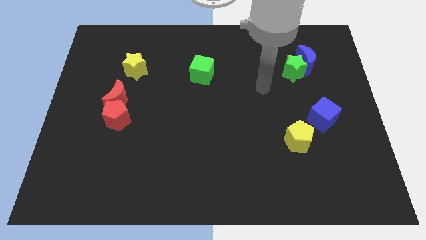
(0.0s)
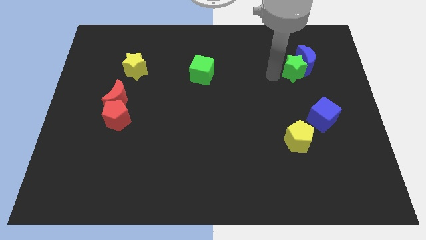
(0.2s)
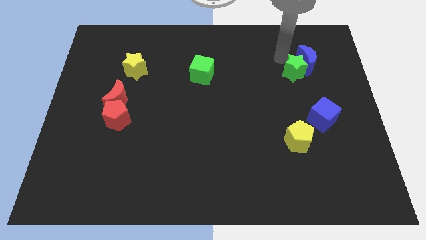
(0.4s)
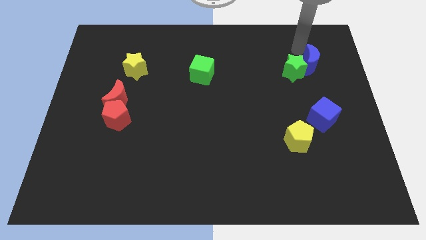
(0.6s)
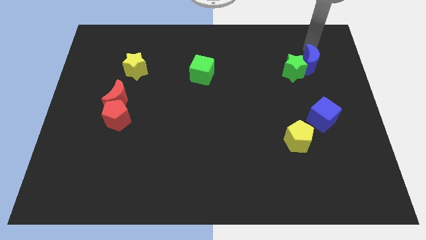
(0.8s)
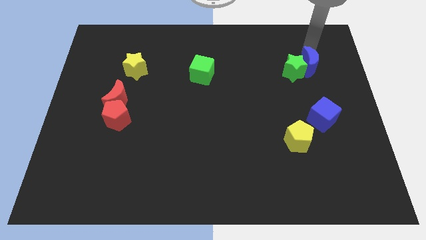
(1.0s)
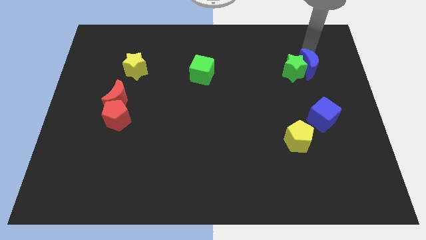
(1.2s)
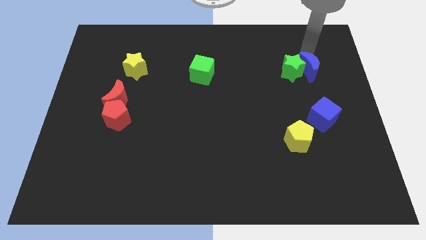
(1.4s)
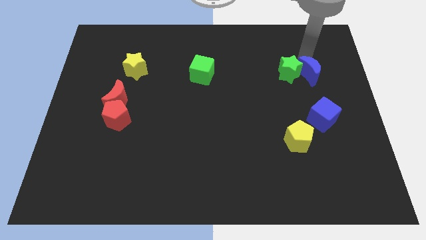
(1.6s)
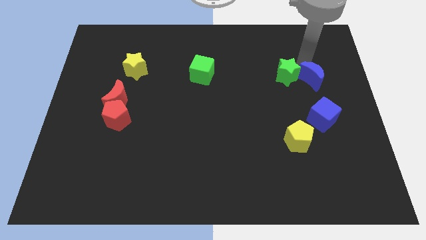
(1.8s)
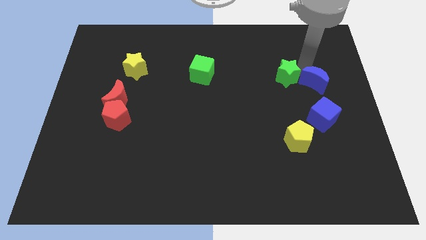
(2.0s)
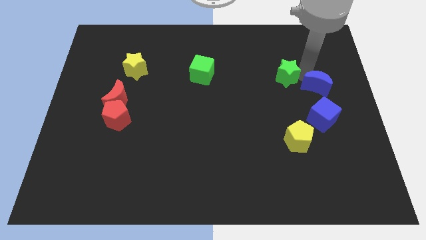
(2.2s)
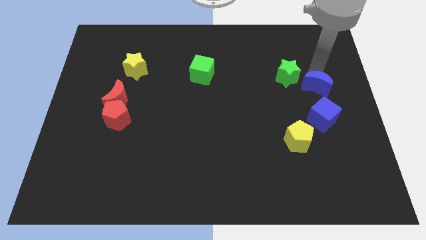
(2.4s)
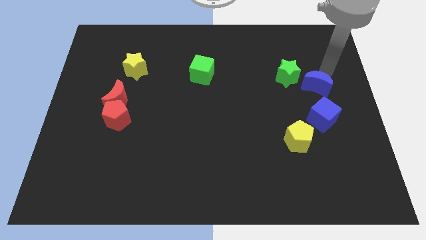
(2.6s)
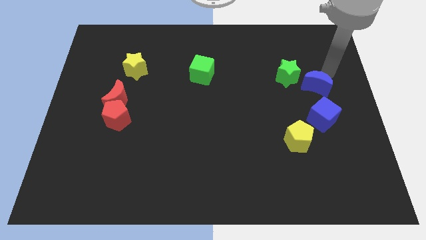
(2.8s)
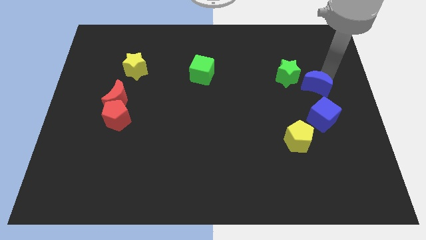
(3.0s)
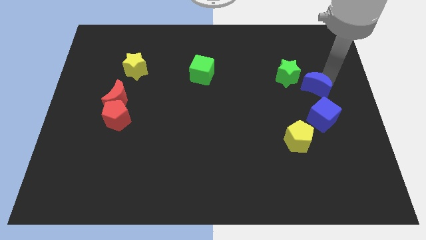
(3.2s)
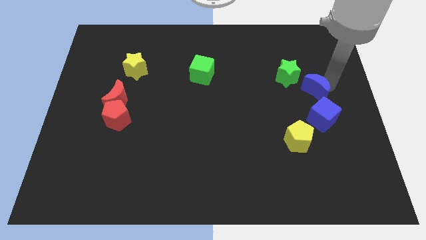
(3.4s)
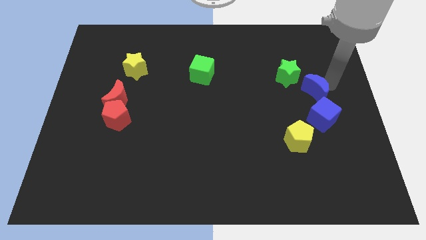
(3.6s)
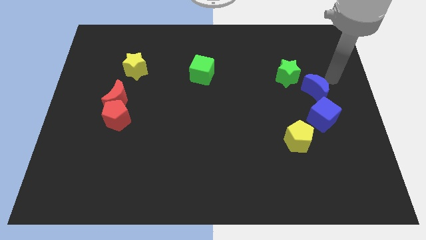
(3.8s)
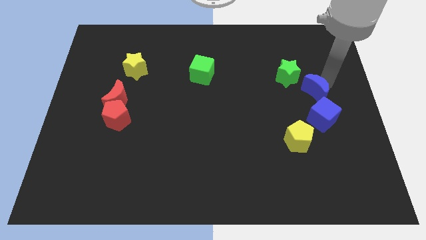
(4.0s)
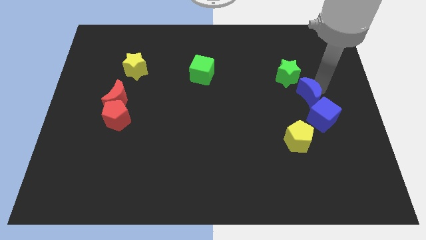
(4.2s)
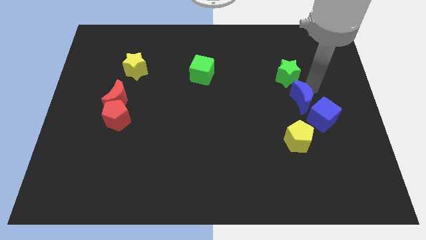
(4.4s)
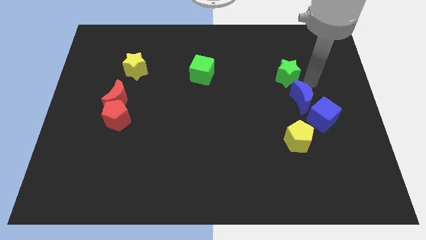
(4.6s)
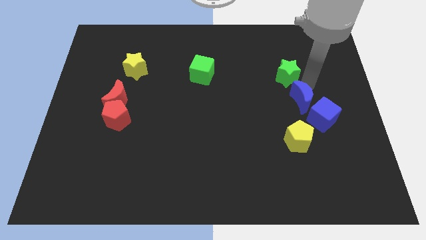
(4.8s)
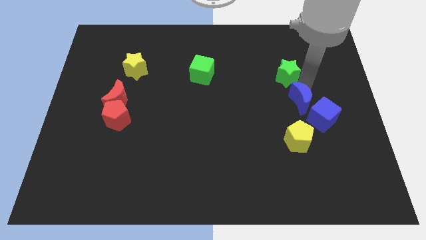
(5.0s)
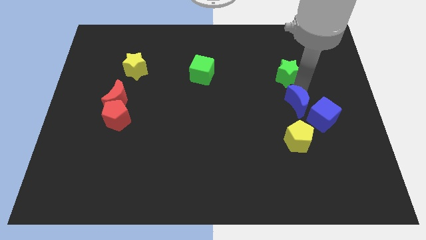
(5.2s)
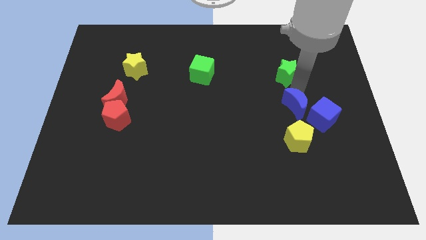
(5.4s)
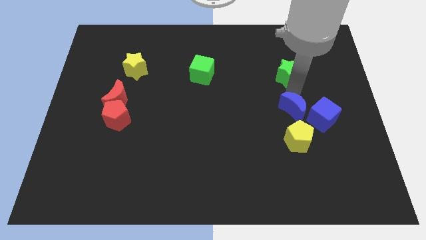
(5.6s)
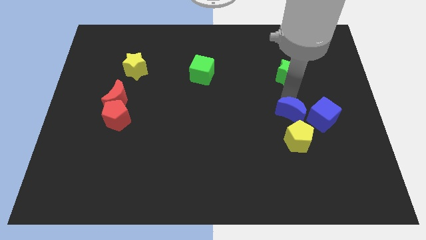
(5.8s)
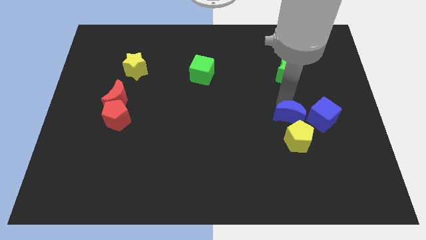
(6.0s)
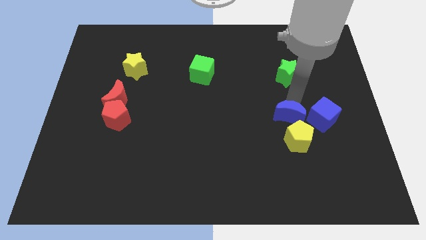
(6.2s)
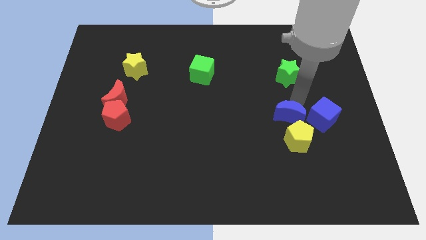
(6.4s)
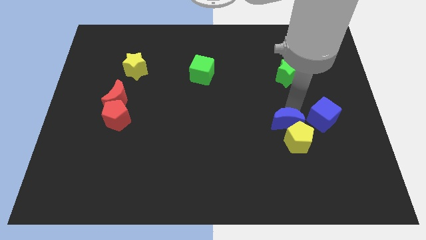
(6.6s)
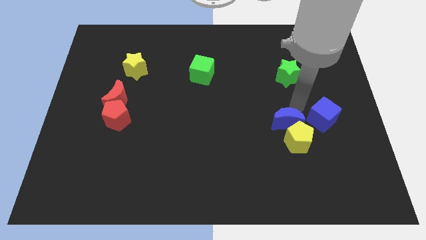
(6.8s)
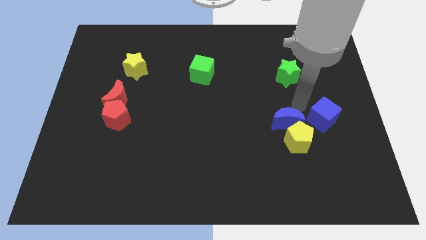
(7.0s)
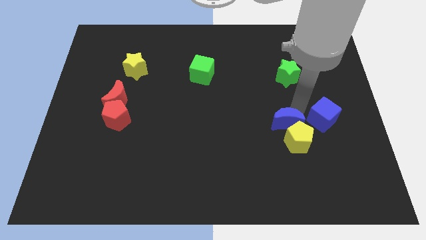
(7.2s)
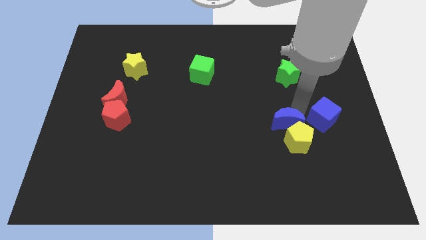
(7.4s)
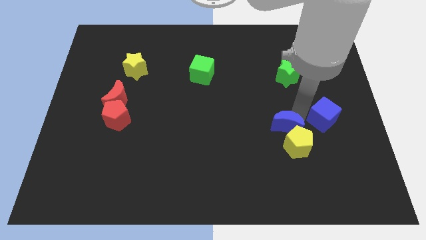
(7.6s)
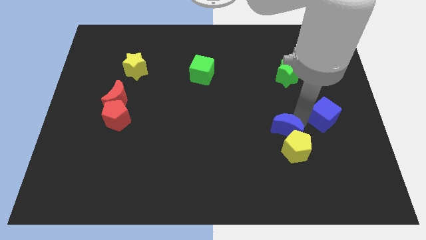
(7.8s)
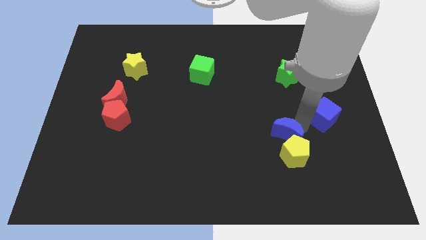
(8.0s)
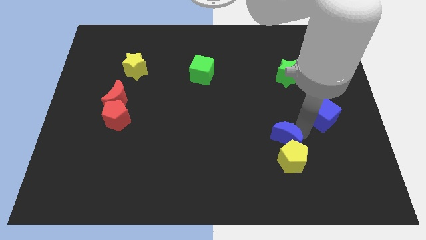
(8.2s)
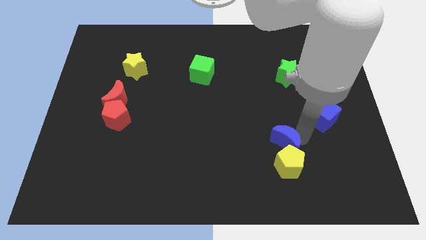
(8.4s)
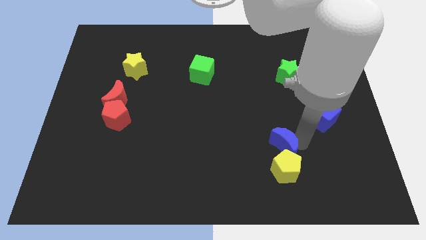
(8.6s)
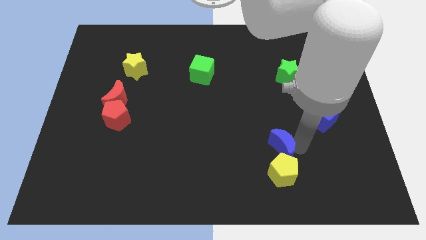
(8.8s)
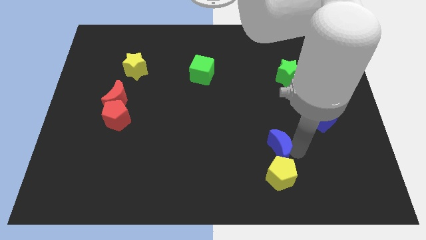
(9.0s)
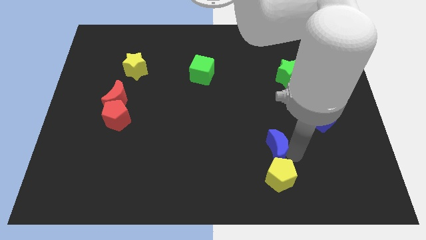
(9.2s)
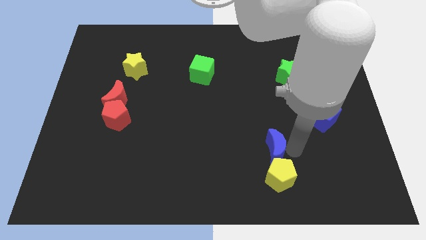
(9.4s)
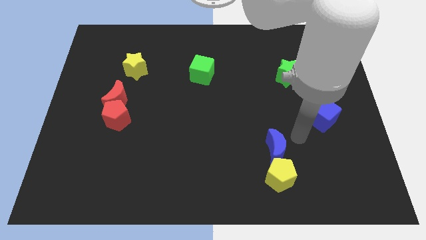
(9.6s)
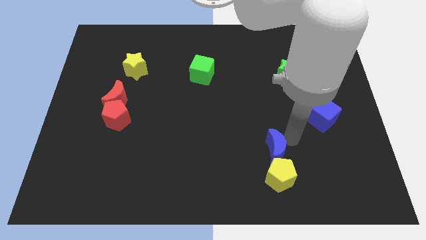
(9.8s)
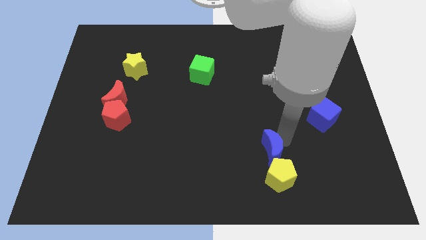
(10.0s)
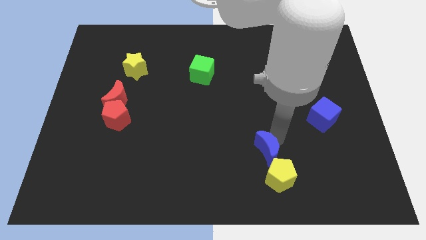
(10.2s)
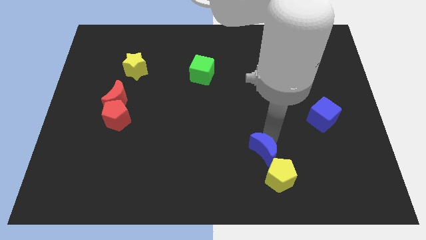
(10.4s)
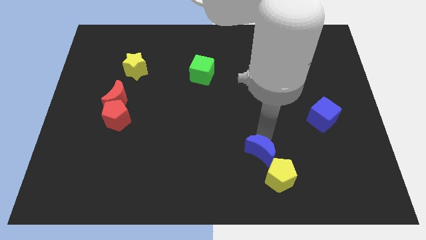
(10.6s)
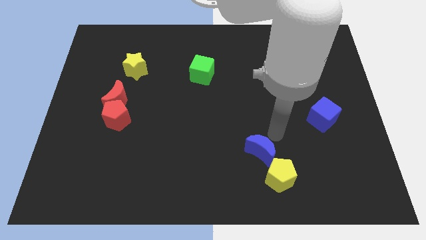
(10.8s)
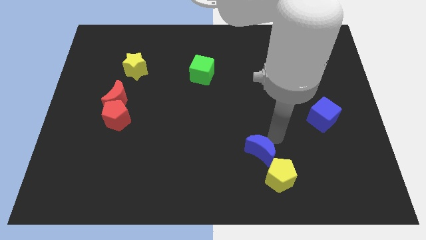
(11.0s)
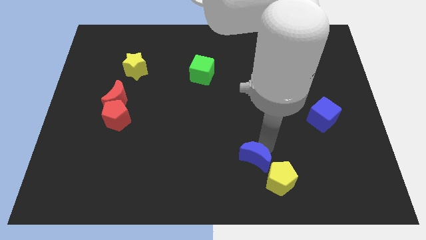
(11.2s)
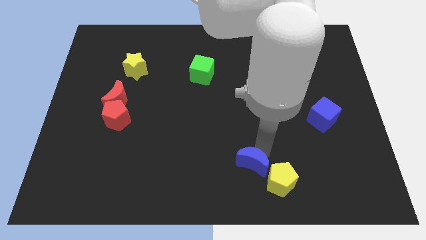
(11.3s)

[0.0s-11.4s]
push the blue moon to the bottom

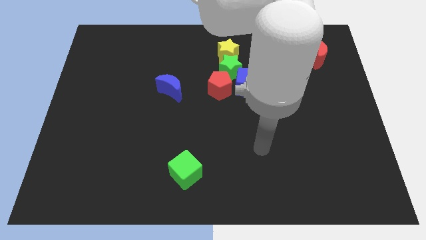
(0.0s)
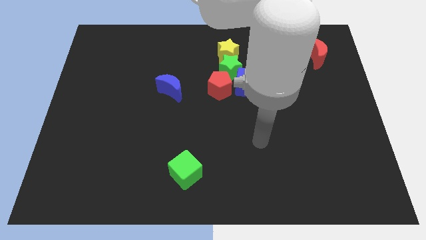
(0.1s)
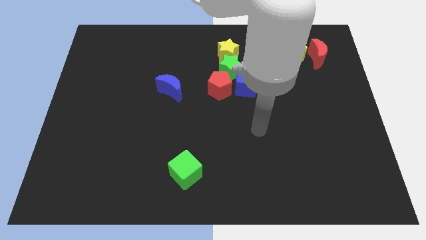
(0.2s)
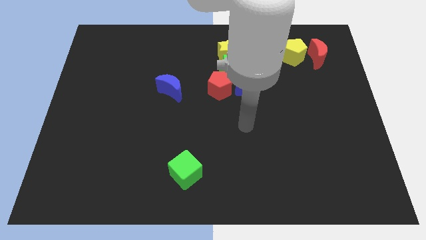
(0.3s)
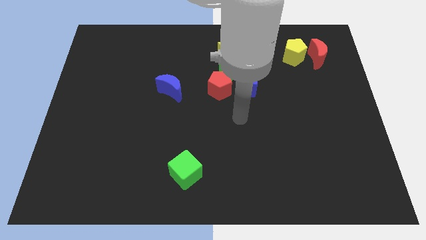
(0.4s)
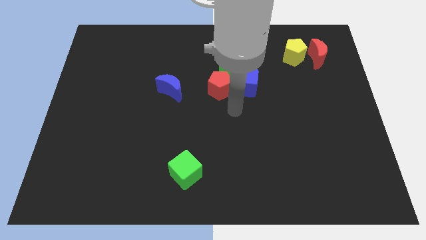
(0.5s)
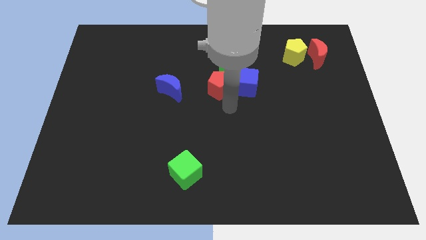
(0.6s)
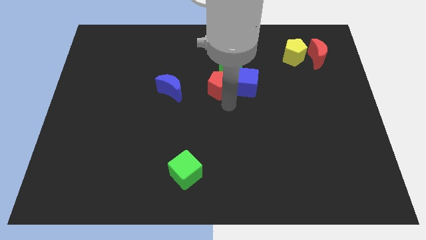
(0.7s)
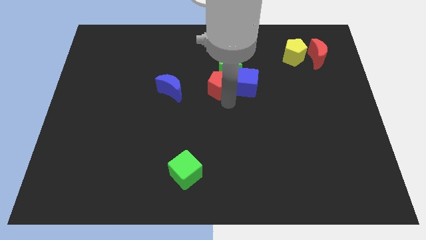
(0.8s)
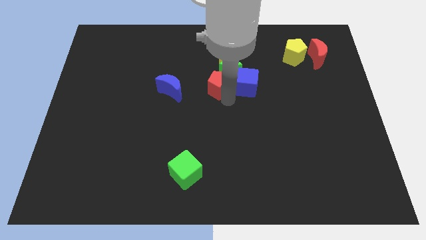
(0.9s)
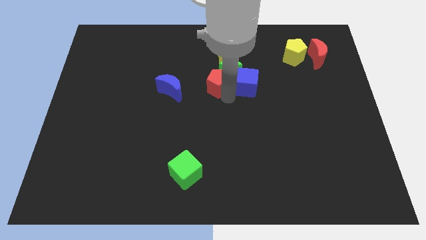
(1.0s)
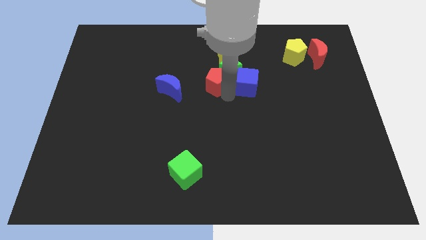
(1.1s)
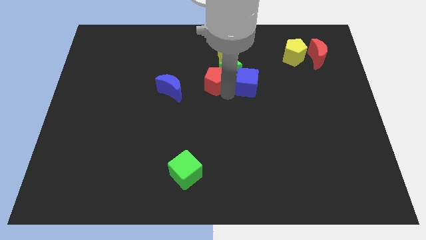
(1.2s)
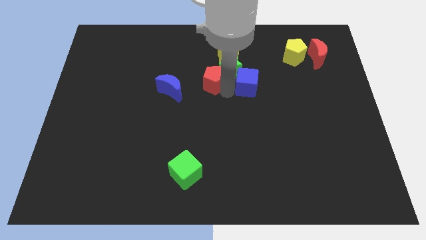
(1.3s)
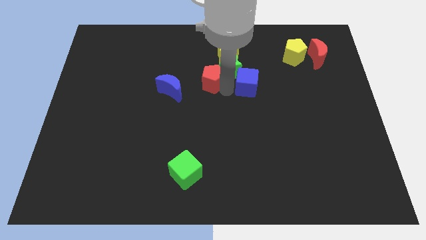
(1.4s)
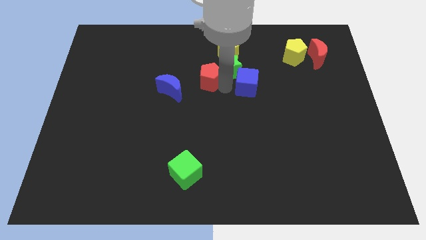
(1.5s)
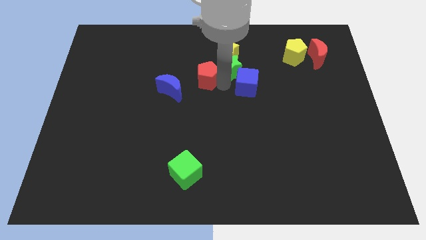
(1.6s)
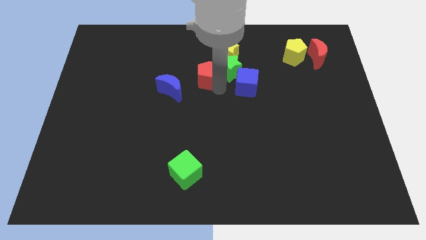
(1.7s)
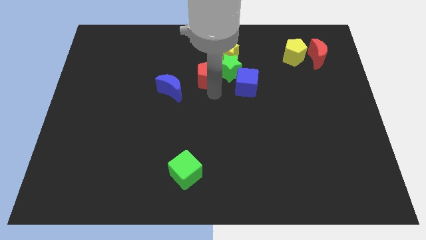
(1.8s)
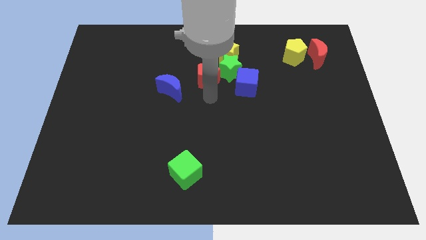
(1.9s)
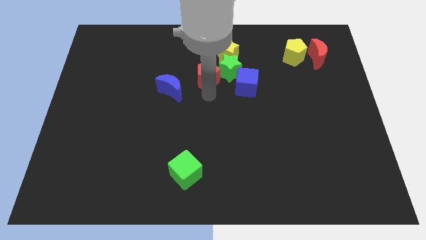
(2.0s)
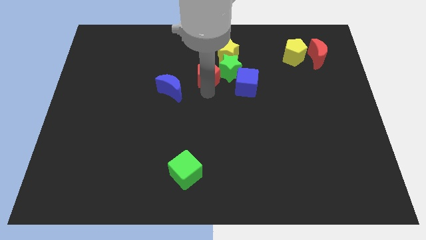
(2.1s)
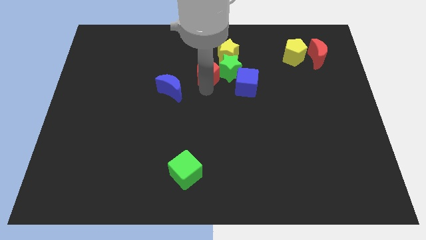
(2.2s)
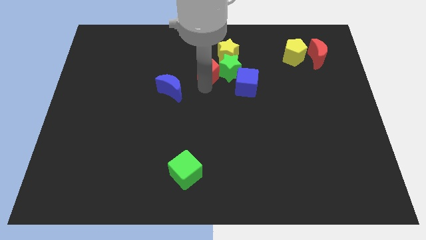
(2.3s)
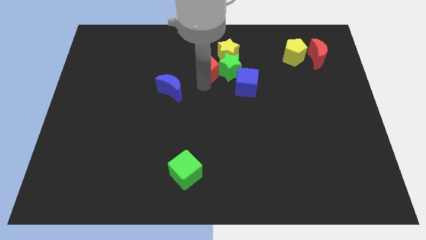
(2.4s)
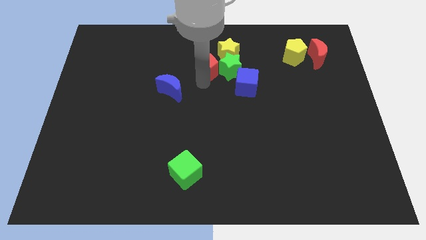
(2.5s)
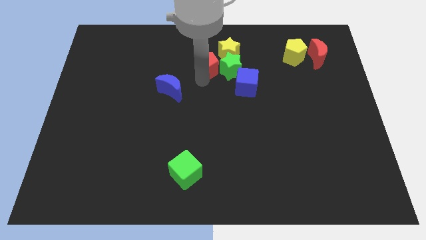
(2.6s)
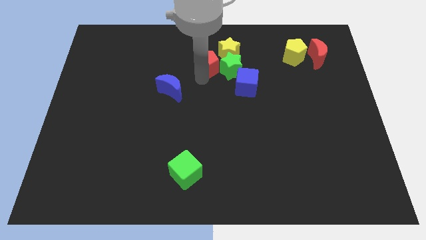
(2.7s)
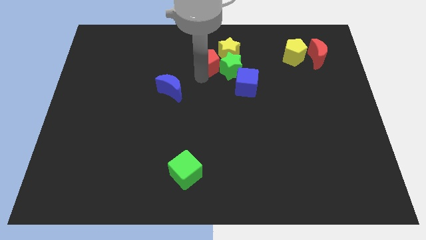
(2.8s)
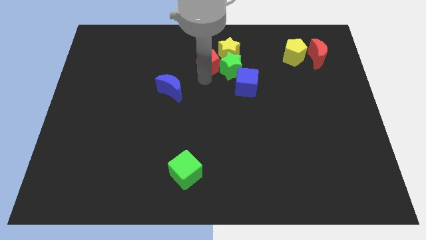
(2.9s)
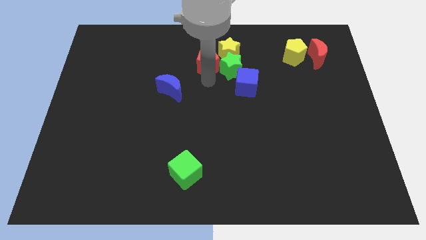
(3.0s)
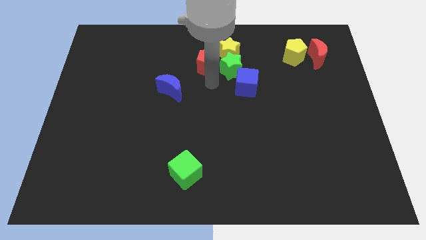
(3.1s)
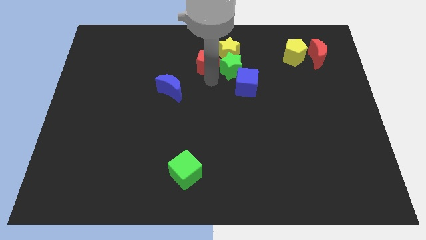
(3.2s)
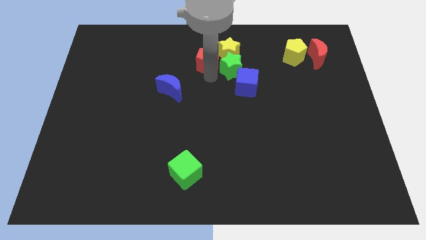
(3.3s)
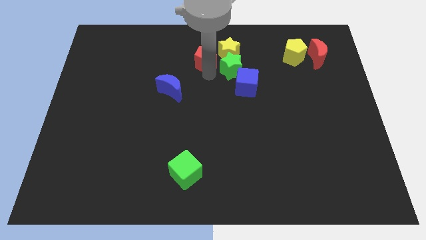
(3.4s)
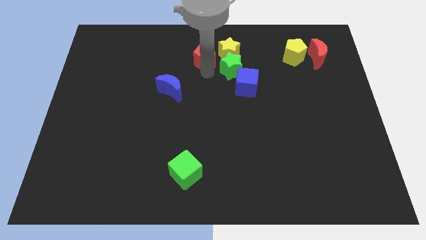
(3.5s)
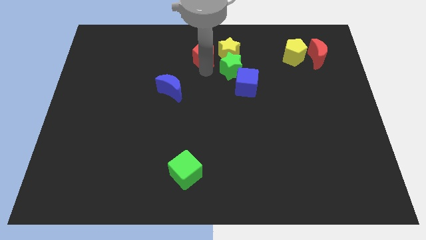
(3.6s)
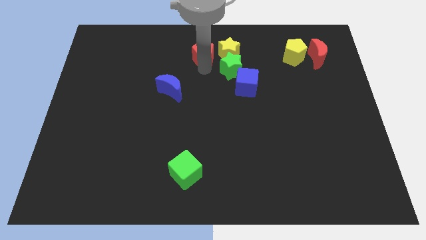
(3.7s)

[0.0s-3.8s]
put the red pentagon to the top
